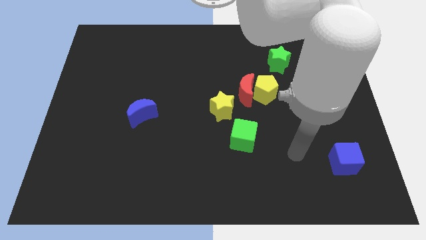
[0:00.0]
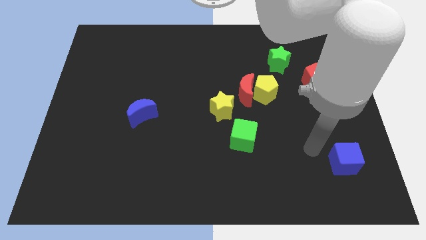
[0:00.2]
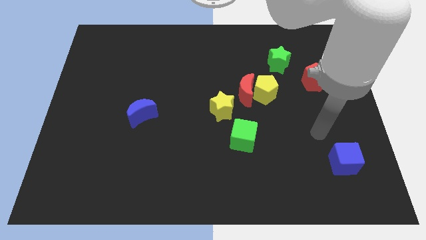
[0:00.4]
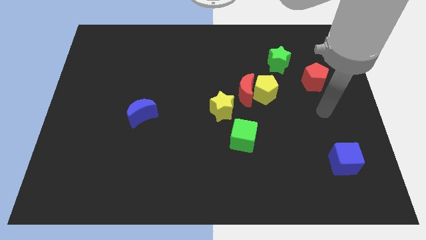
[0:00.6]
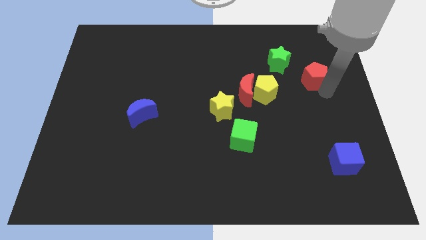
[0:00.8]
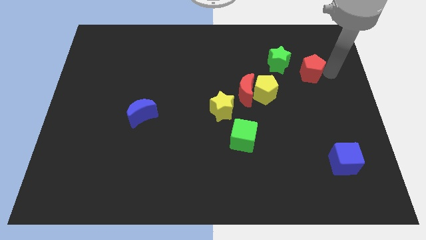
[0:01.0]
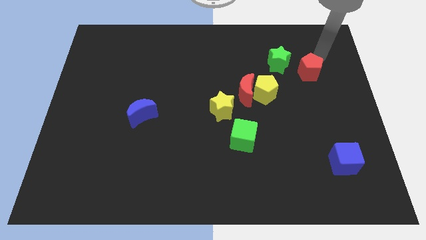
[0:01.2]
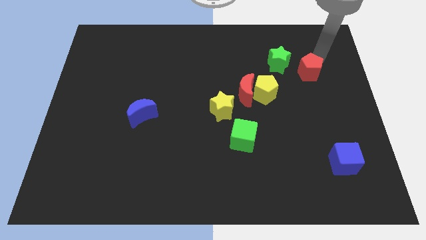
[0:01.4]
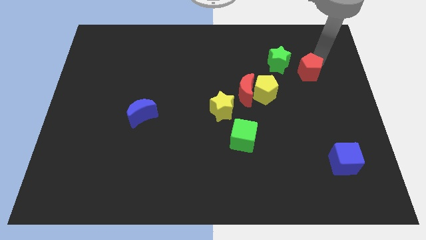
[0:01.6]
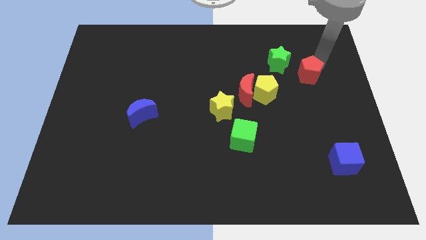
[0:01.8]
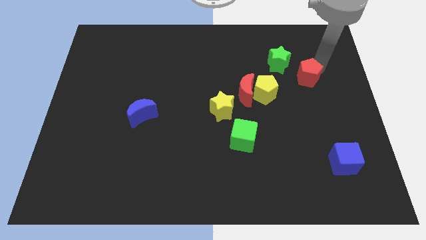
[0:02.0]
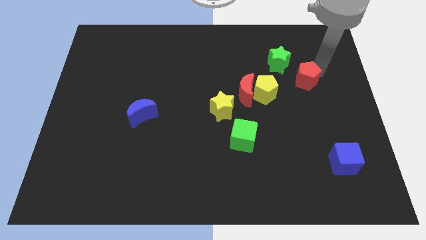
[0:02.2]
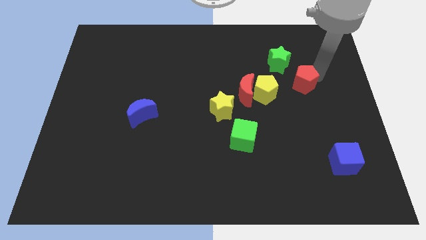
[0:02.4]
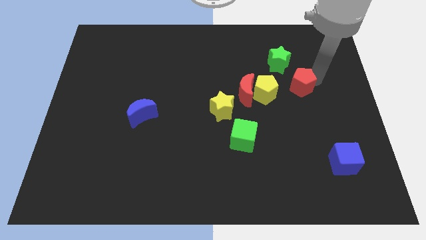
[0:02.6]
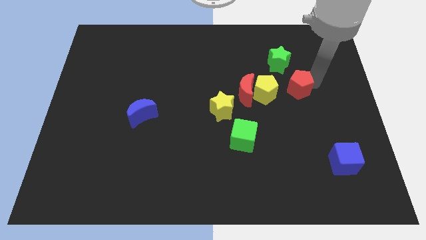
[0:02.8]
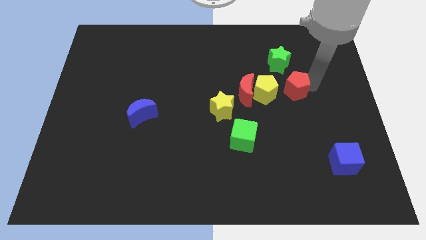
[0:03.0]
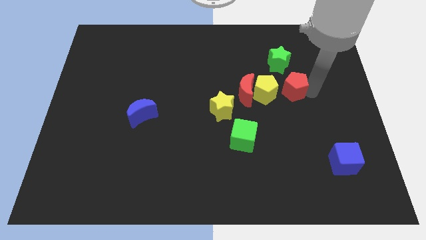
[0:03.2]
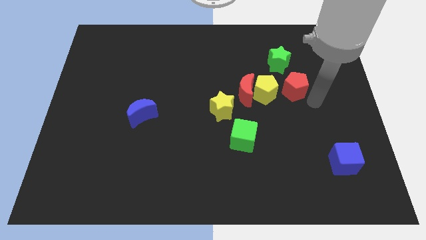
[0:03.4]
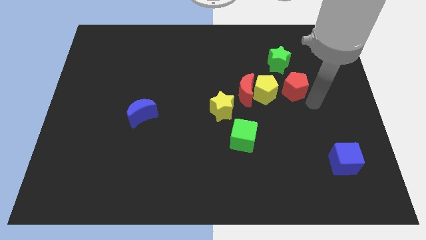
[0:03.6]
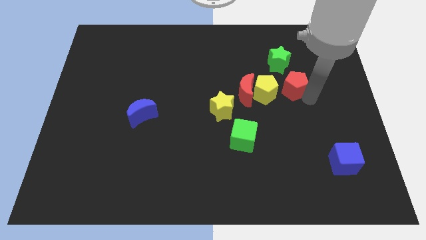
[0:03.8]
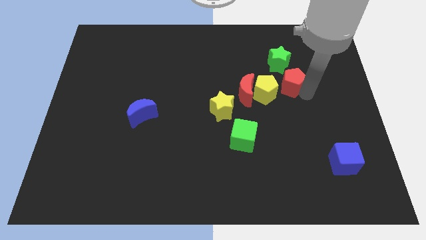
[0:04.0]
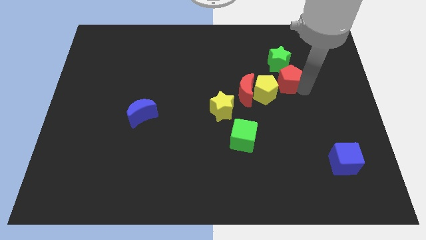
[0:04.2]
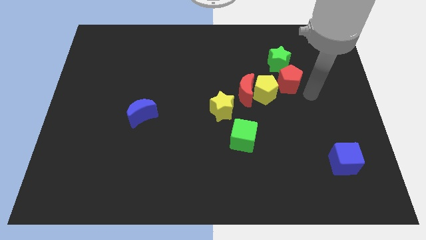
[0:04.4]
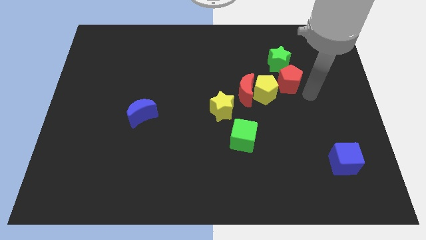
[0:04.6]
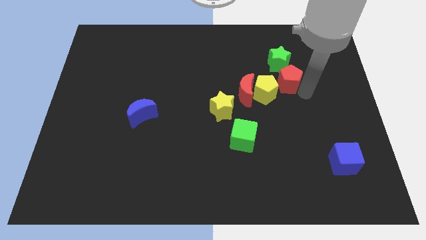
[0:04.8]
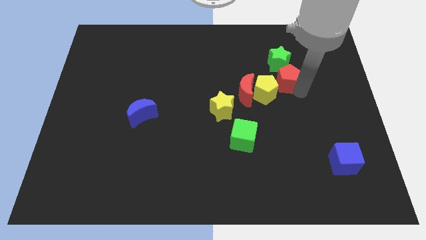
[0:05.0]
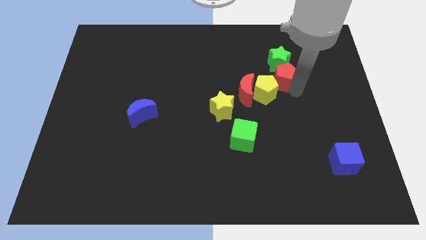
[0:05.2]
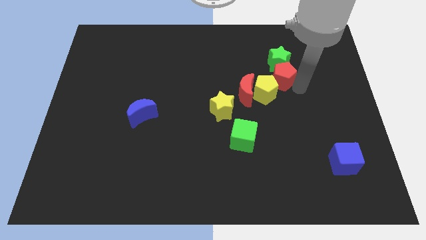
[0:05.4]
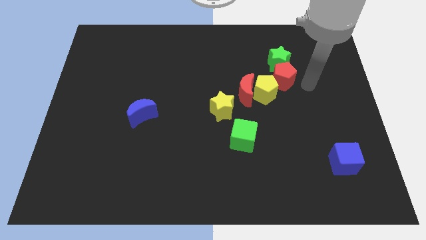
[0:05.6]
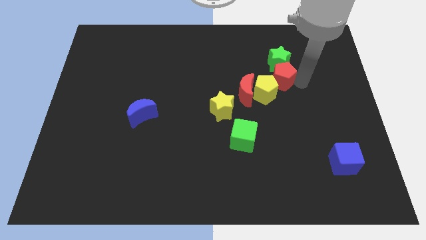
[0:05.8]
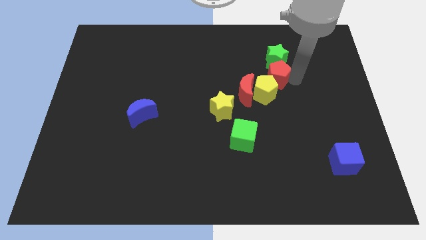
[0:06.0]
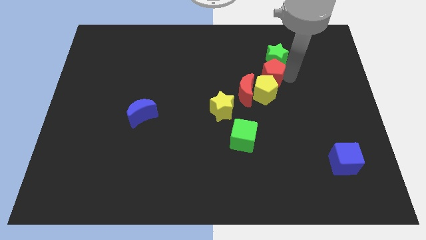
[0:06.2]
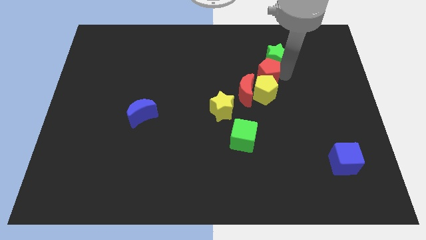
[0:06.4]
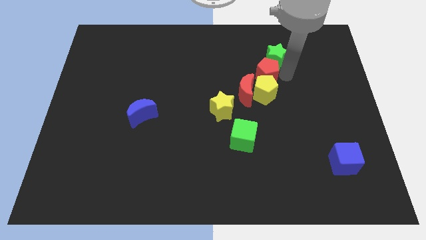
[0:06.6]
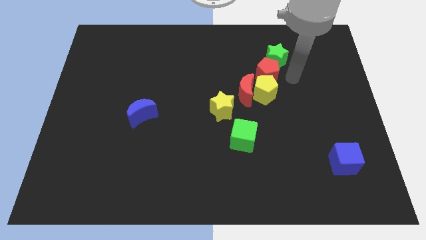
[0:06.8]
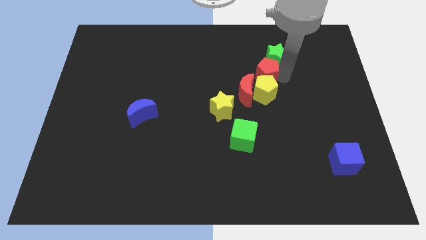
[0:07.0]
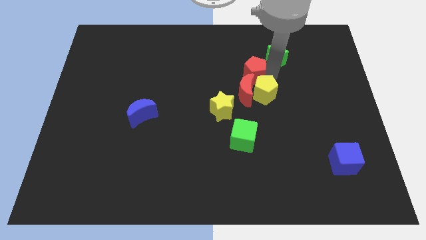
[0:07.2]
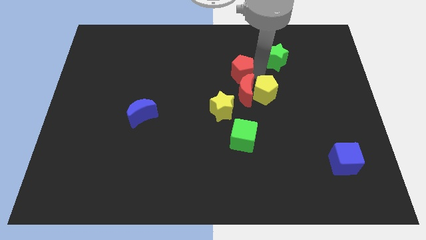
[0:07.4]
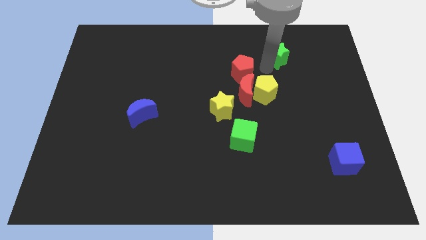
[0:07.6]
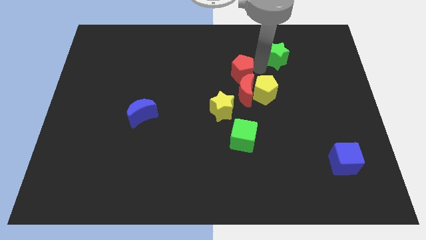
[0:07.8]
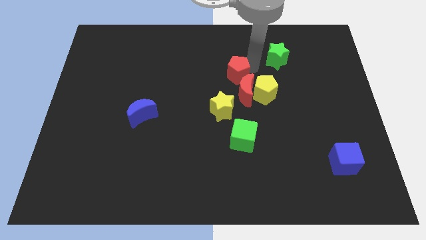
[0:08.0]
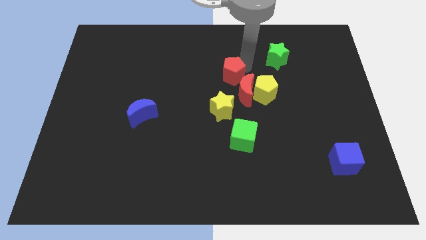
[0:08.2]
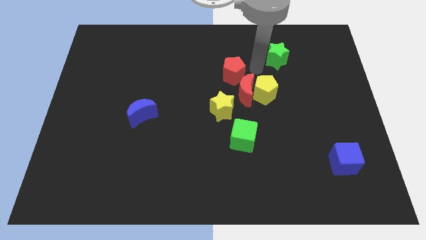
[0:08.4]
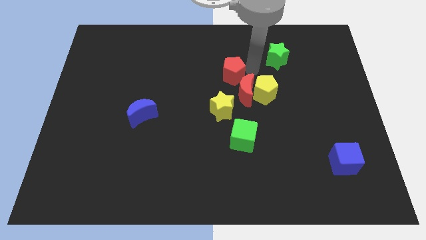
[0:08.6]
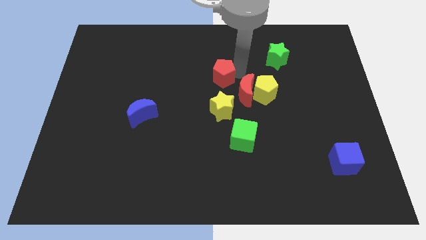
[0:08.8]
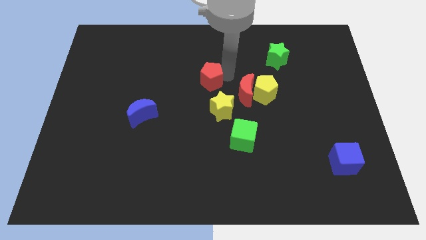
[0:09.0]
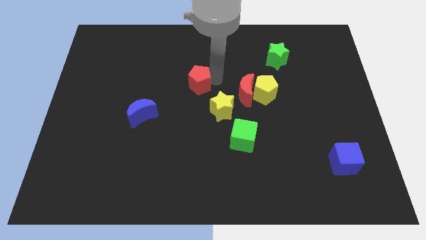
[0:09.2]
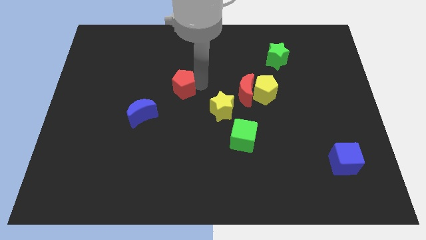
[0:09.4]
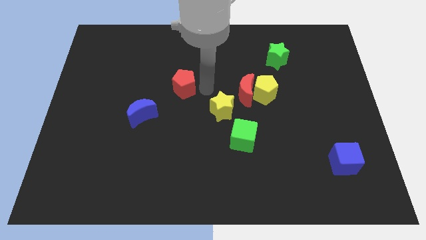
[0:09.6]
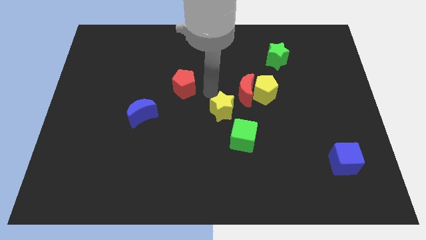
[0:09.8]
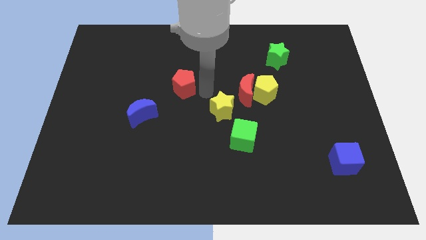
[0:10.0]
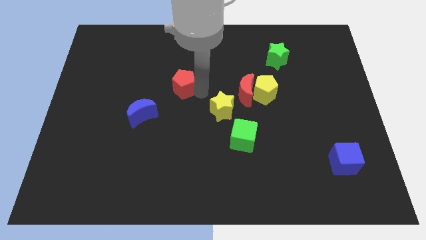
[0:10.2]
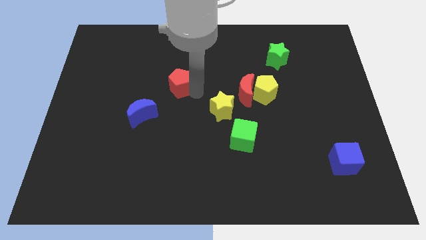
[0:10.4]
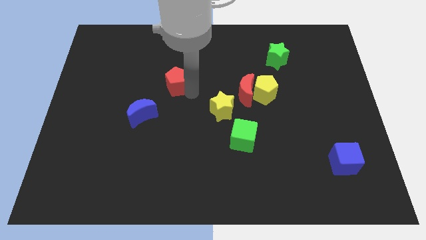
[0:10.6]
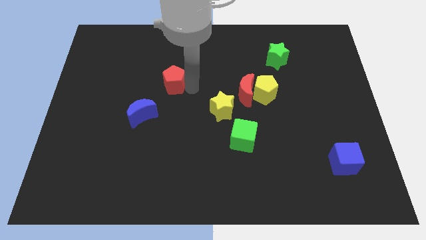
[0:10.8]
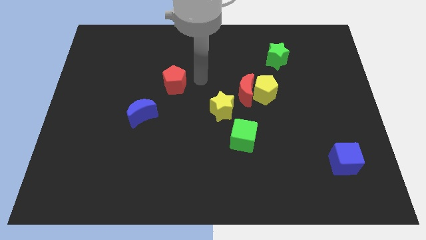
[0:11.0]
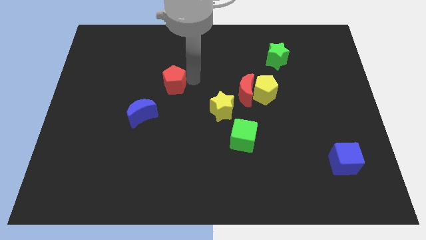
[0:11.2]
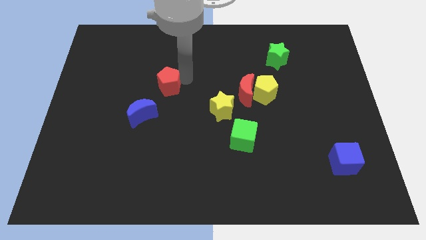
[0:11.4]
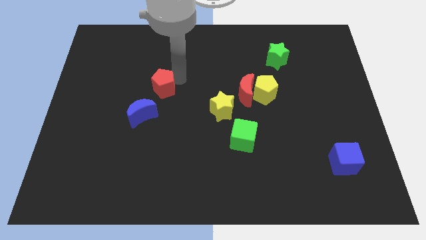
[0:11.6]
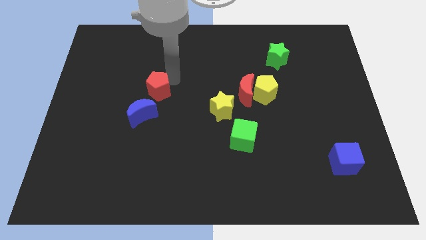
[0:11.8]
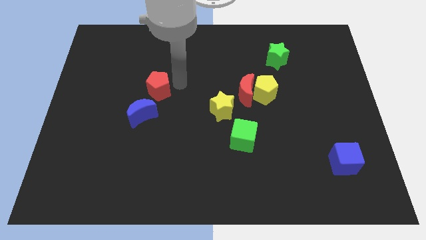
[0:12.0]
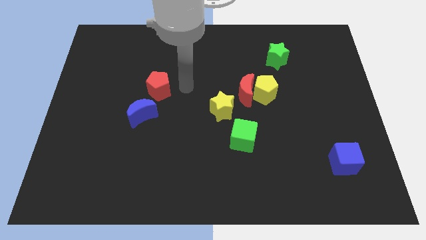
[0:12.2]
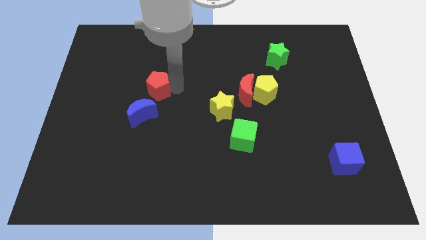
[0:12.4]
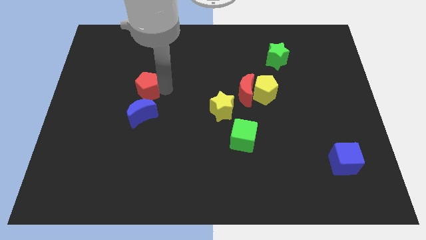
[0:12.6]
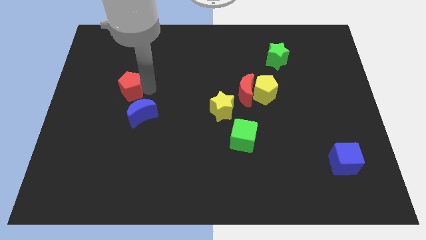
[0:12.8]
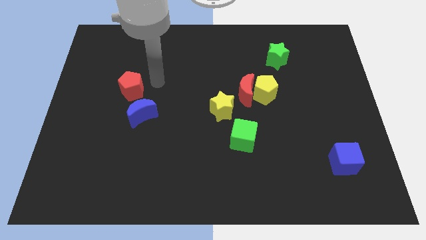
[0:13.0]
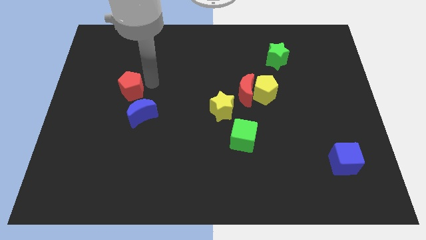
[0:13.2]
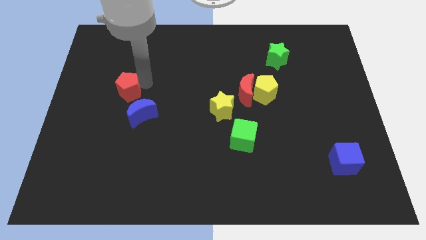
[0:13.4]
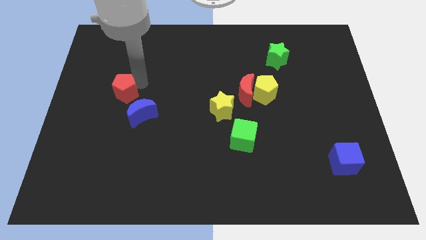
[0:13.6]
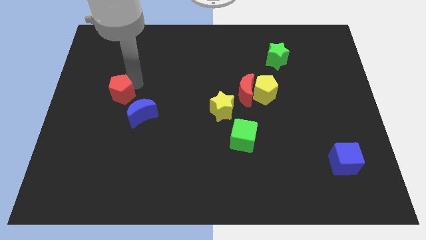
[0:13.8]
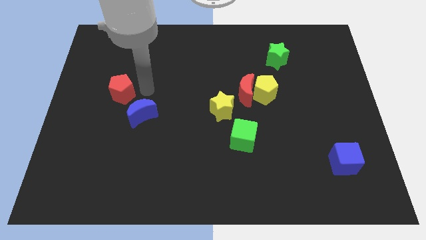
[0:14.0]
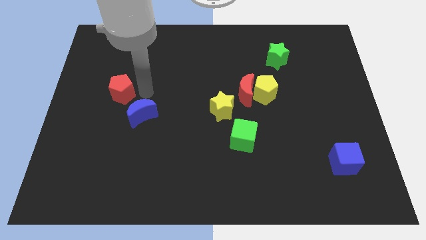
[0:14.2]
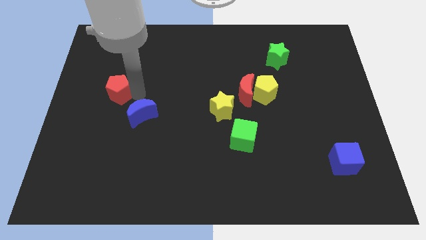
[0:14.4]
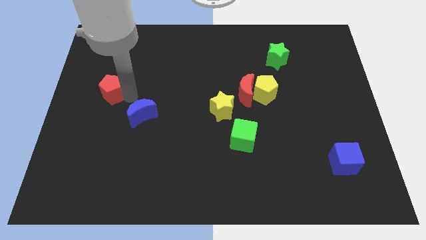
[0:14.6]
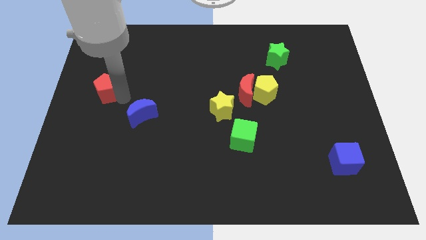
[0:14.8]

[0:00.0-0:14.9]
push the red pentagon to the center left
